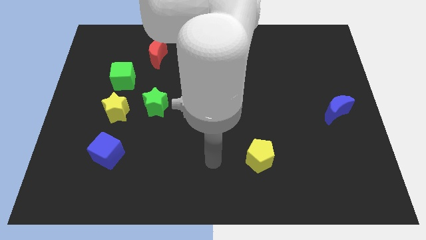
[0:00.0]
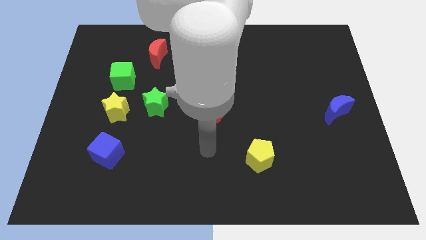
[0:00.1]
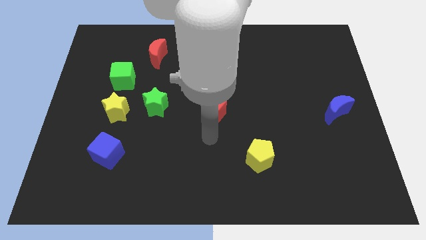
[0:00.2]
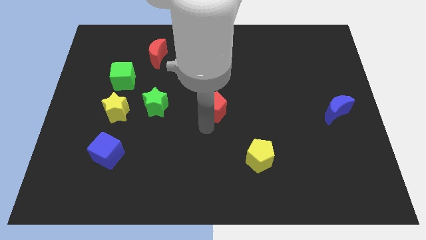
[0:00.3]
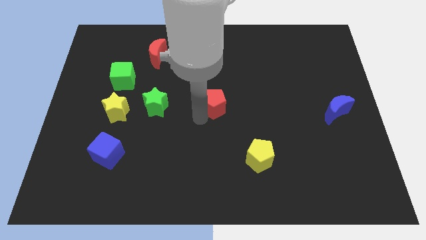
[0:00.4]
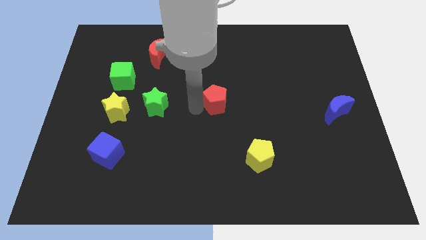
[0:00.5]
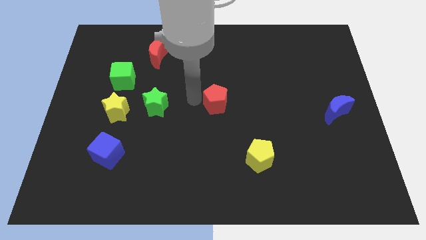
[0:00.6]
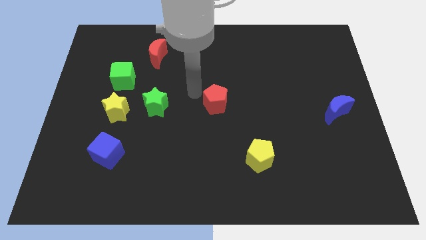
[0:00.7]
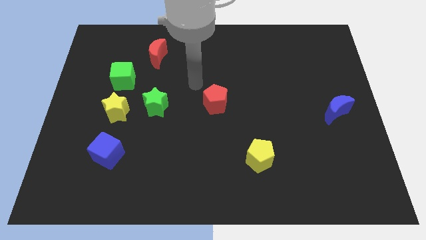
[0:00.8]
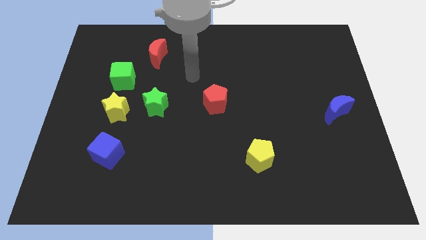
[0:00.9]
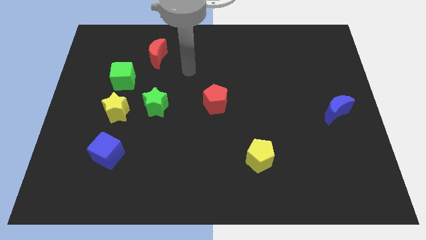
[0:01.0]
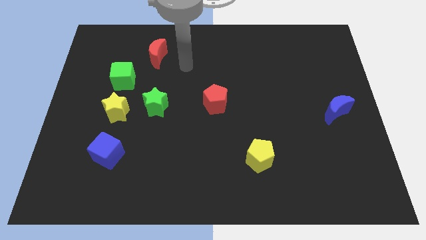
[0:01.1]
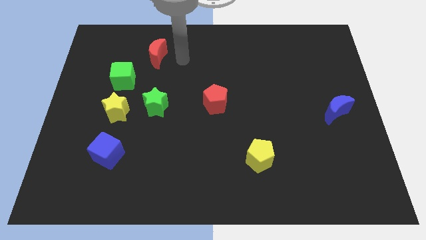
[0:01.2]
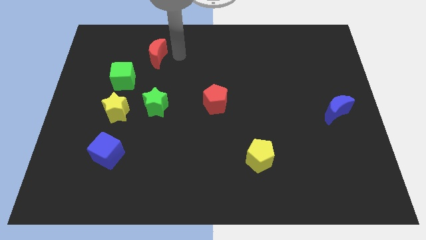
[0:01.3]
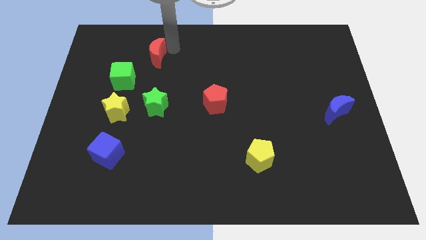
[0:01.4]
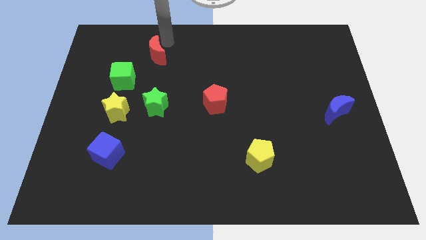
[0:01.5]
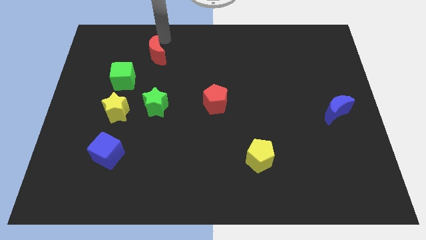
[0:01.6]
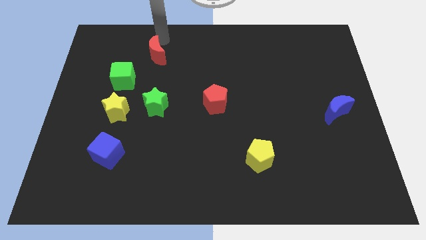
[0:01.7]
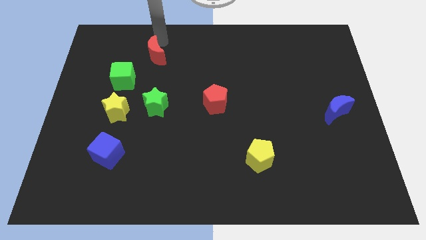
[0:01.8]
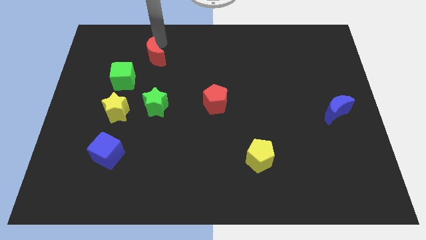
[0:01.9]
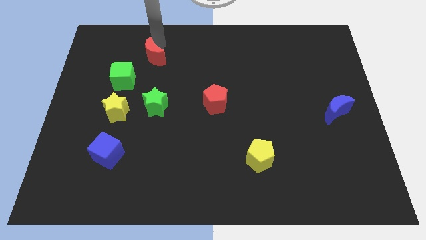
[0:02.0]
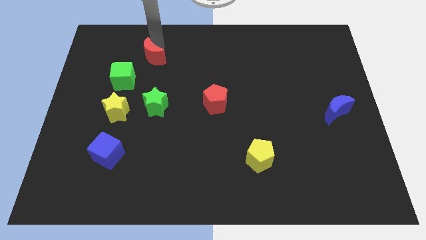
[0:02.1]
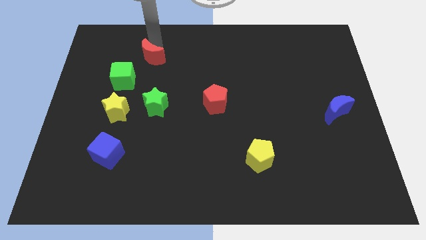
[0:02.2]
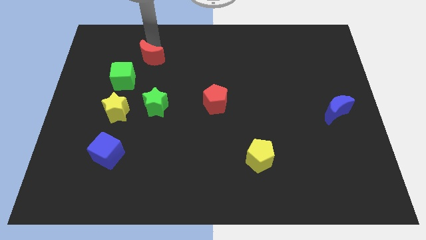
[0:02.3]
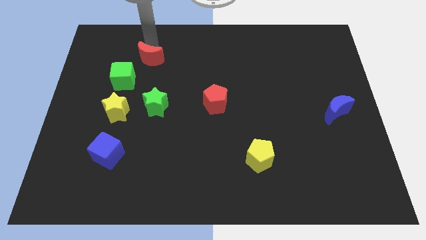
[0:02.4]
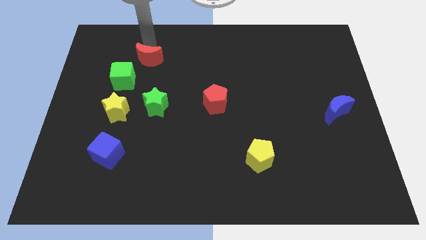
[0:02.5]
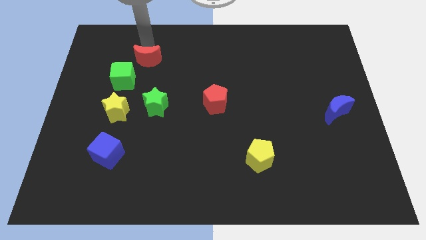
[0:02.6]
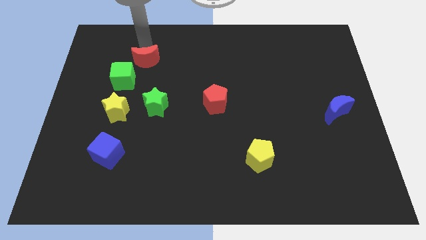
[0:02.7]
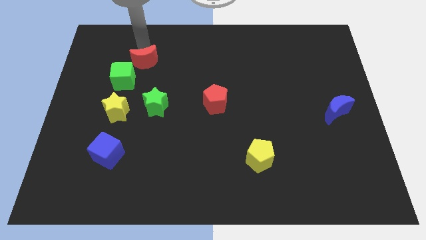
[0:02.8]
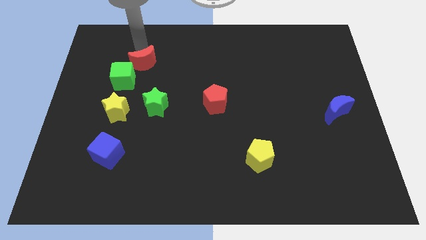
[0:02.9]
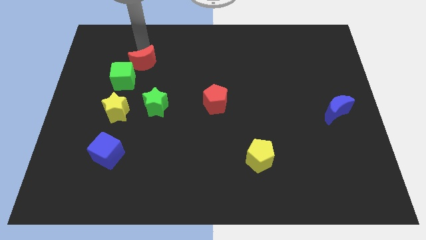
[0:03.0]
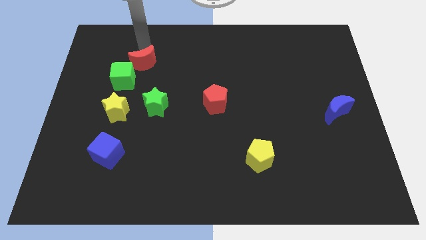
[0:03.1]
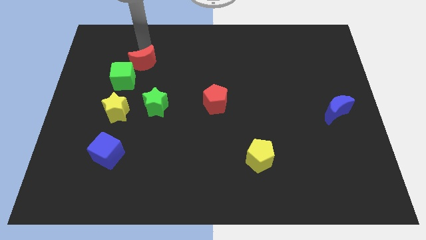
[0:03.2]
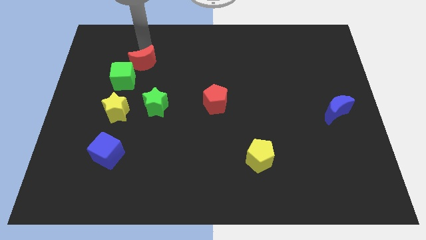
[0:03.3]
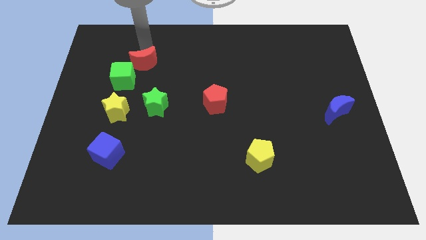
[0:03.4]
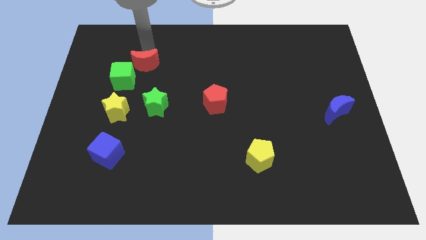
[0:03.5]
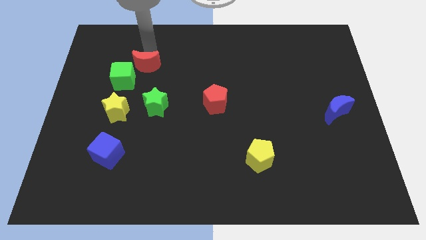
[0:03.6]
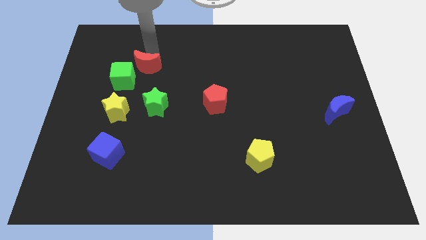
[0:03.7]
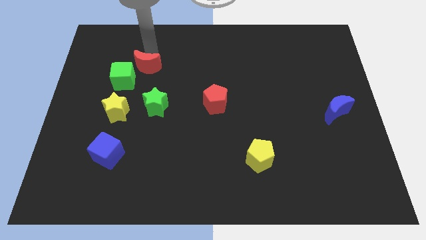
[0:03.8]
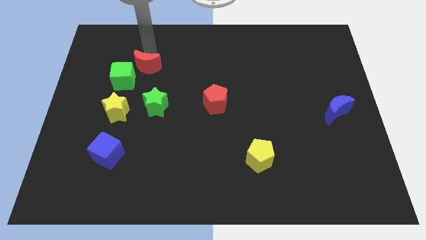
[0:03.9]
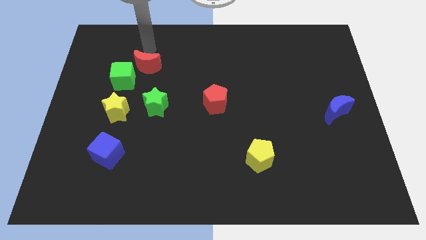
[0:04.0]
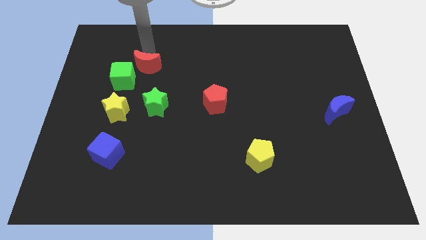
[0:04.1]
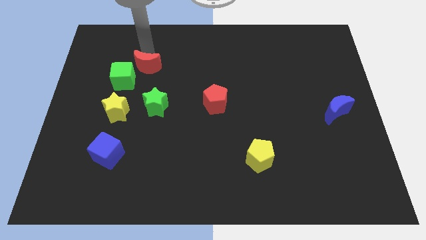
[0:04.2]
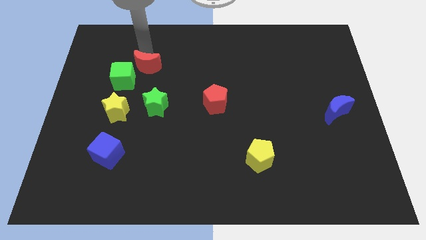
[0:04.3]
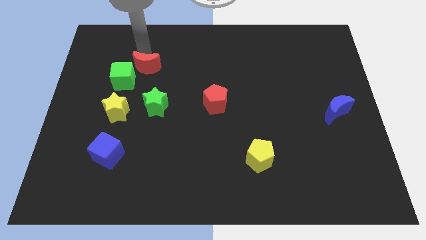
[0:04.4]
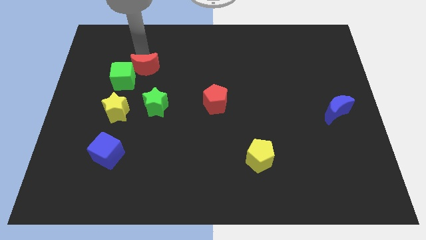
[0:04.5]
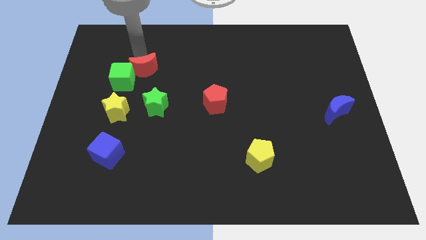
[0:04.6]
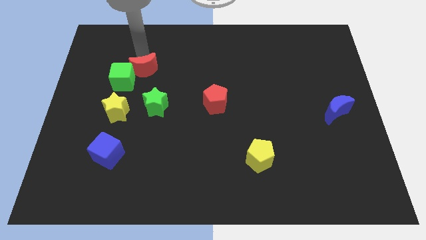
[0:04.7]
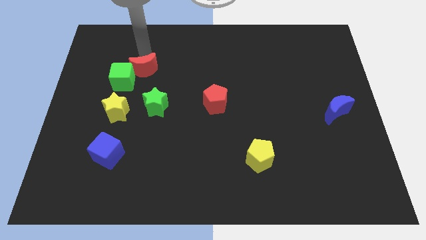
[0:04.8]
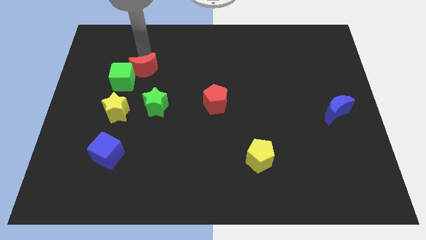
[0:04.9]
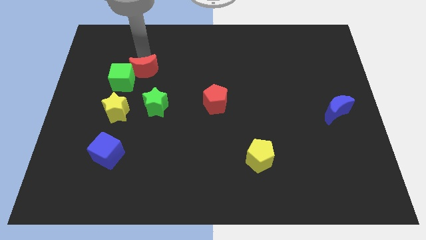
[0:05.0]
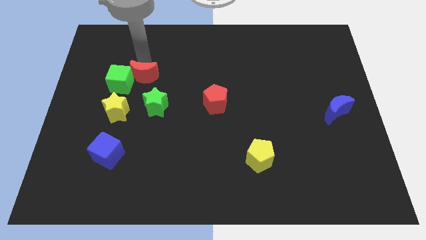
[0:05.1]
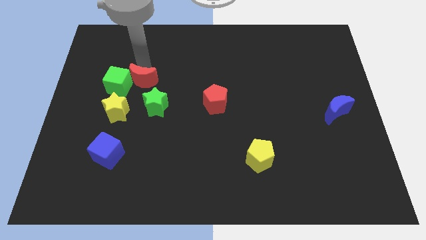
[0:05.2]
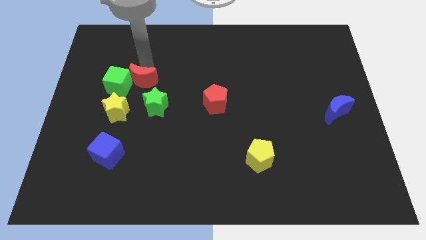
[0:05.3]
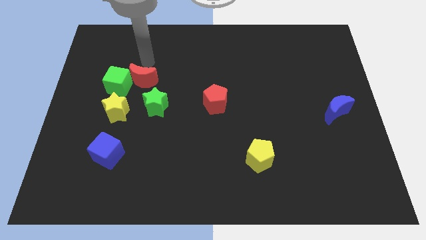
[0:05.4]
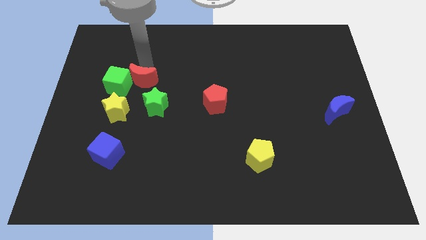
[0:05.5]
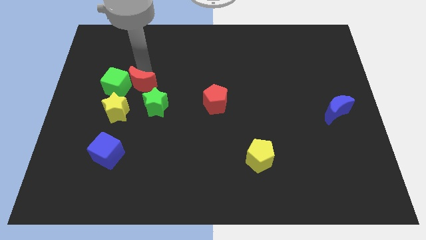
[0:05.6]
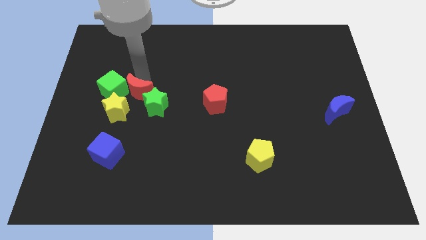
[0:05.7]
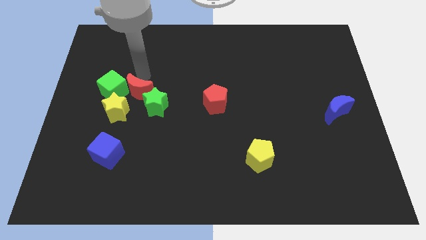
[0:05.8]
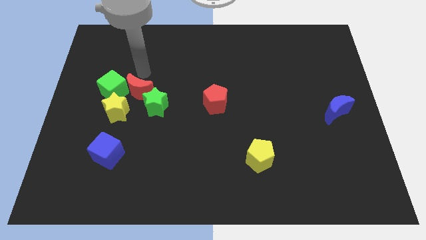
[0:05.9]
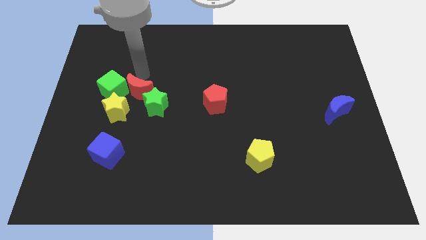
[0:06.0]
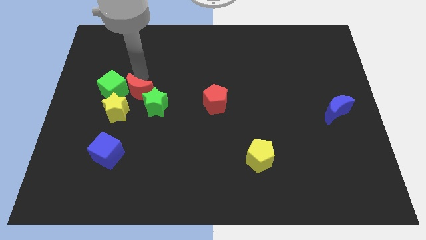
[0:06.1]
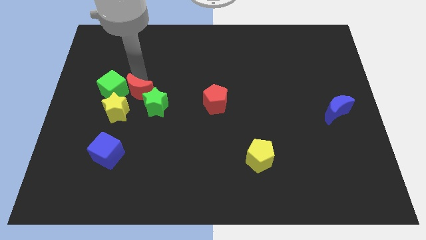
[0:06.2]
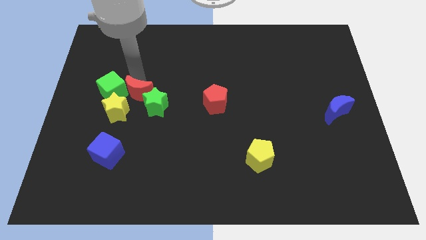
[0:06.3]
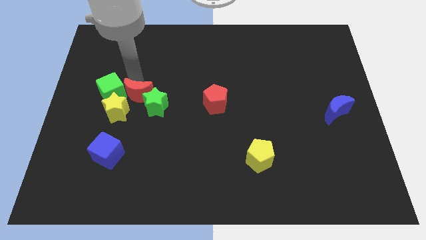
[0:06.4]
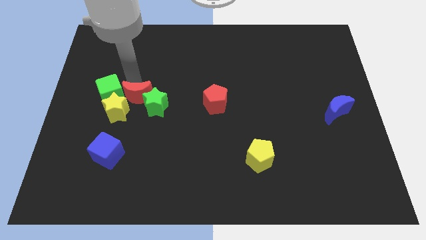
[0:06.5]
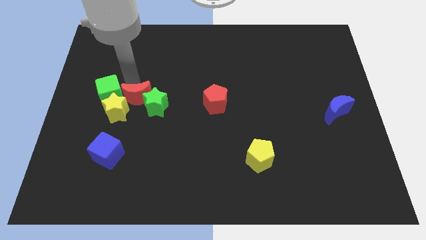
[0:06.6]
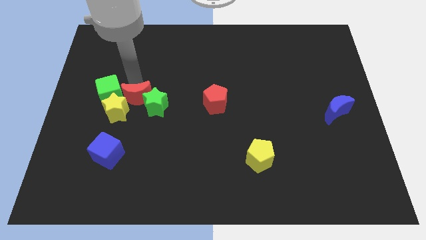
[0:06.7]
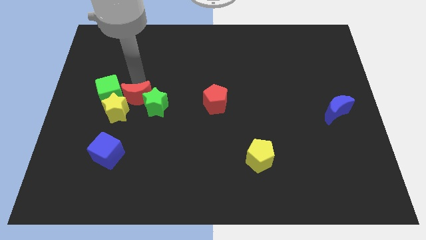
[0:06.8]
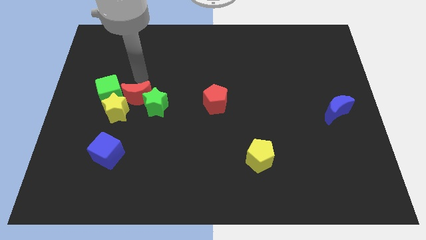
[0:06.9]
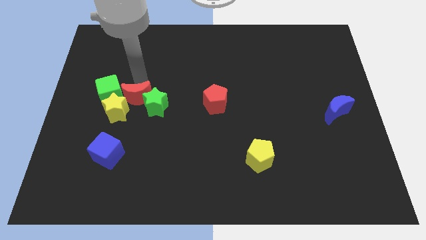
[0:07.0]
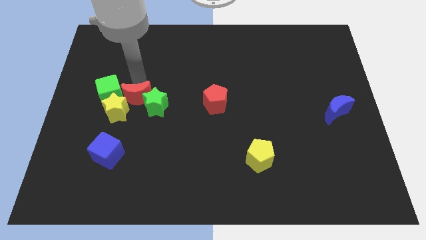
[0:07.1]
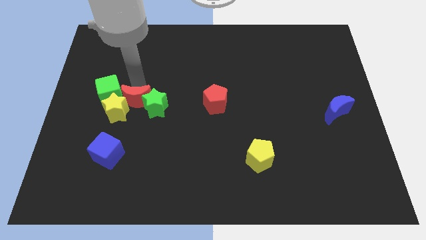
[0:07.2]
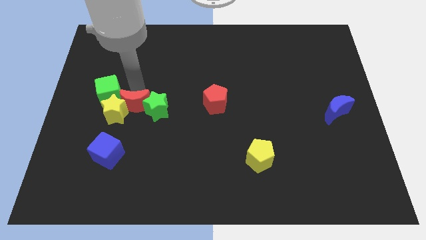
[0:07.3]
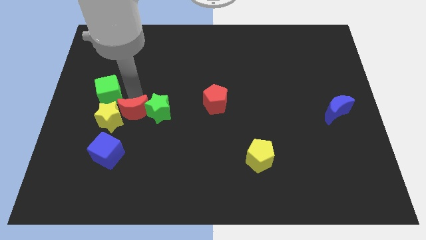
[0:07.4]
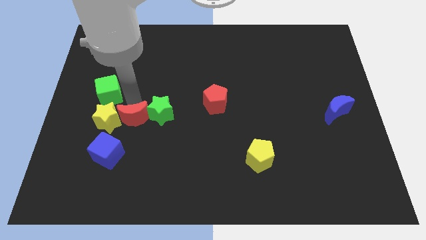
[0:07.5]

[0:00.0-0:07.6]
move the red moon downwards
